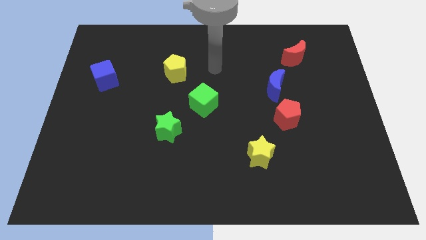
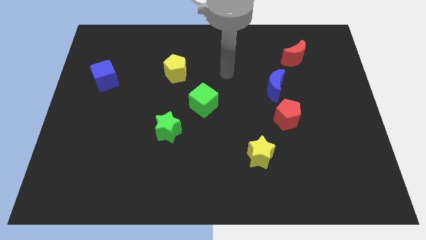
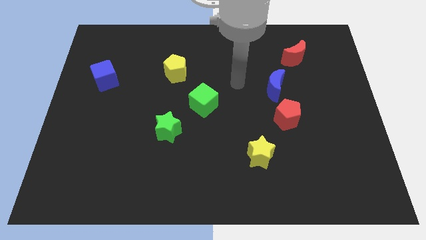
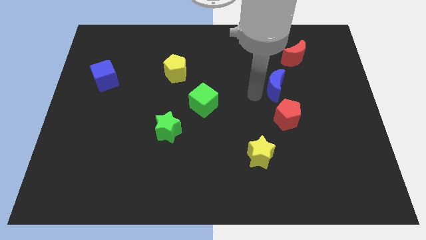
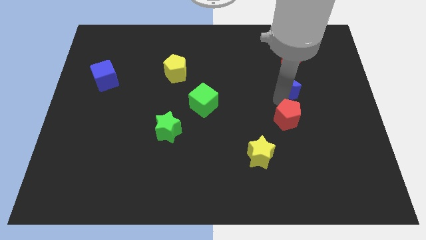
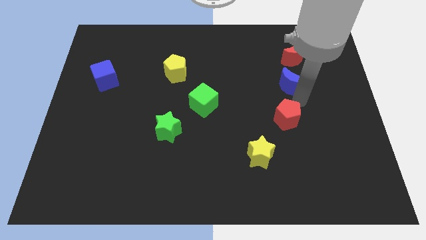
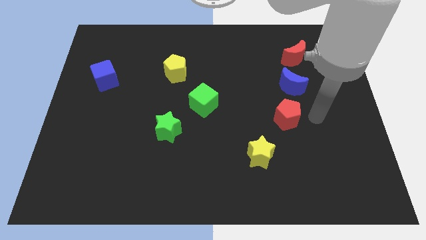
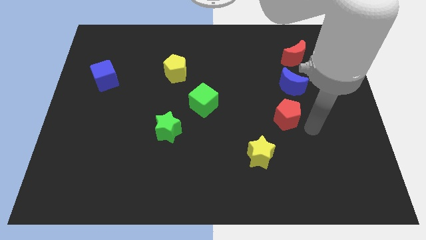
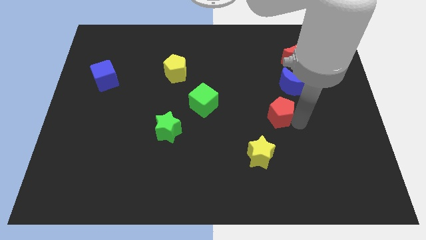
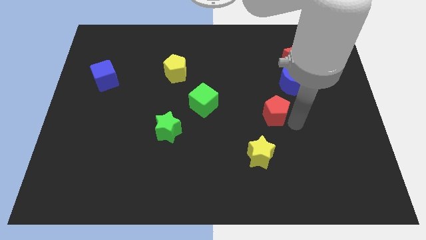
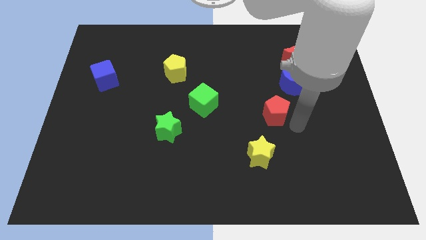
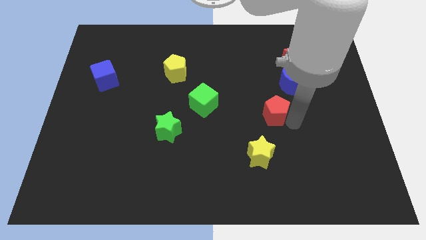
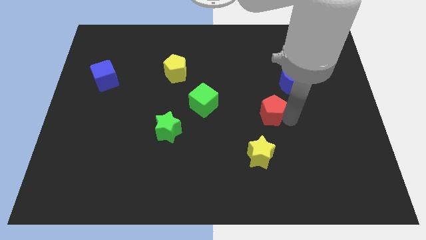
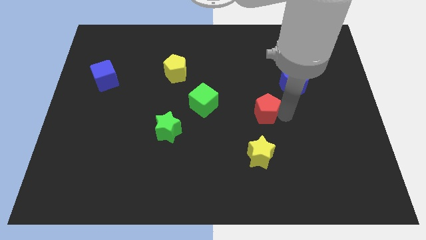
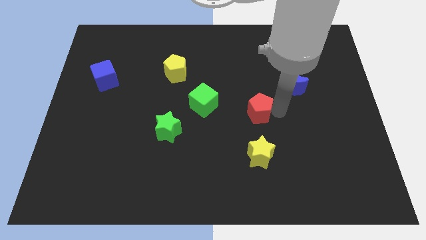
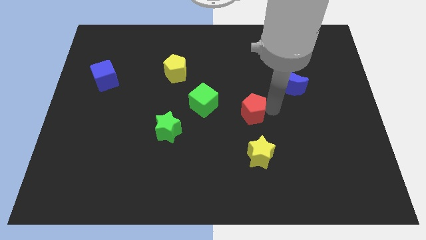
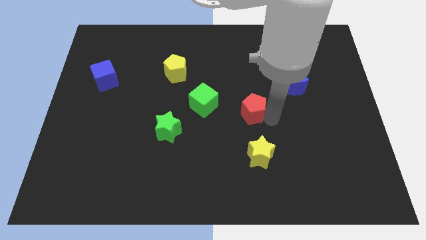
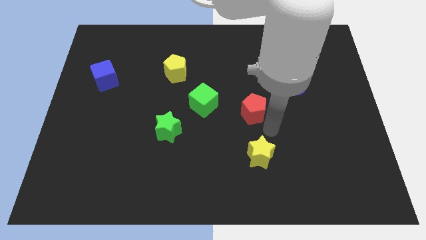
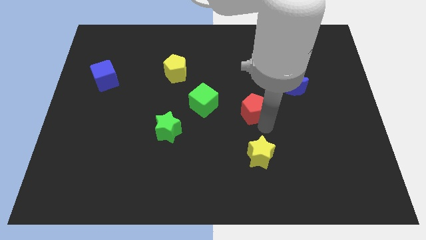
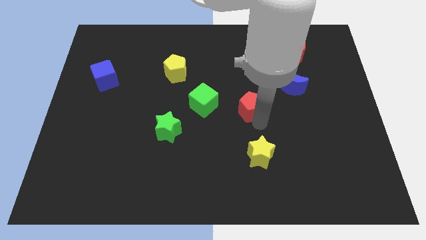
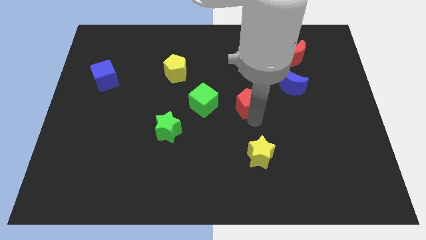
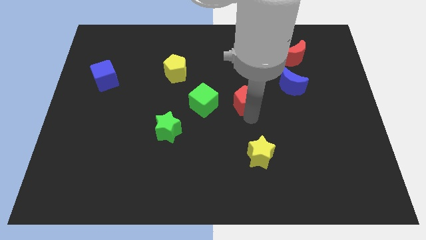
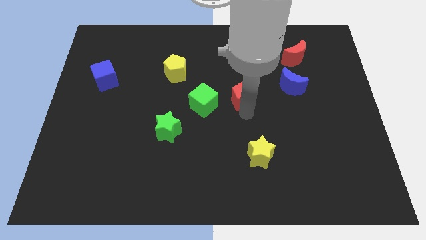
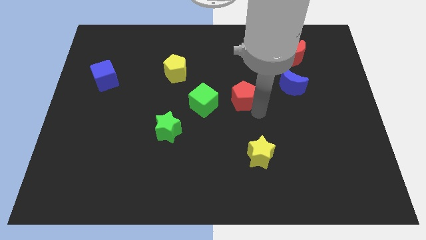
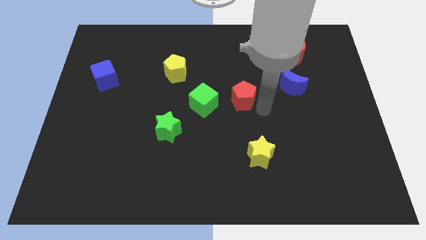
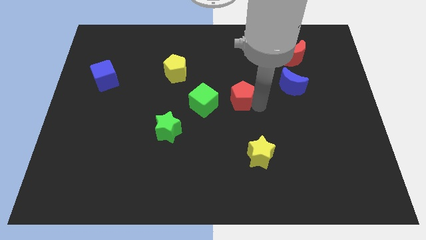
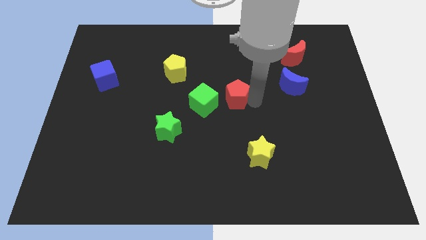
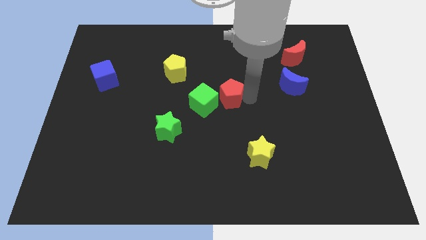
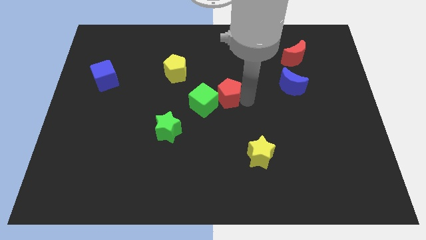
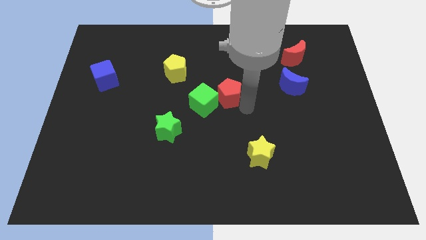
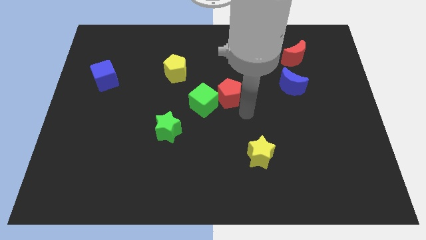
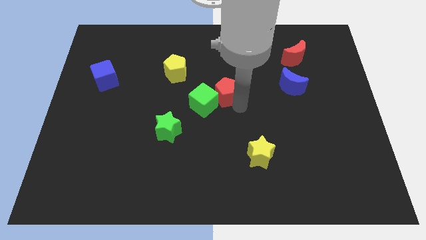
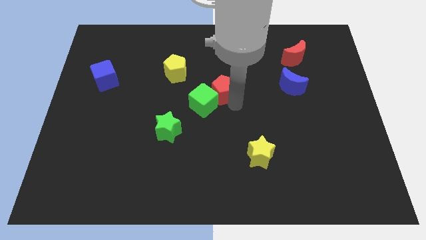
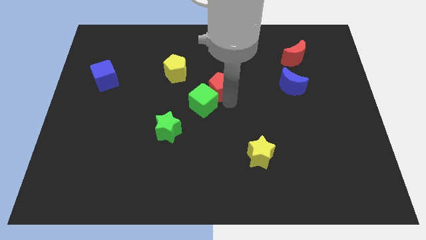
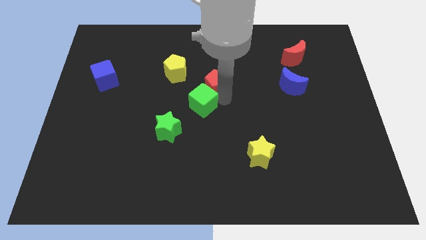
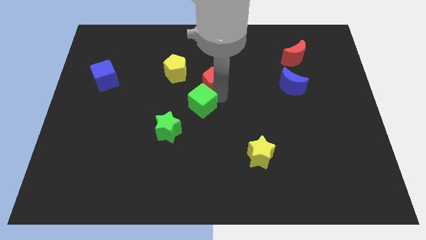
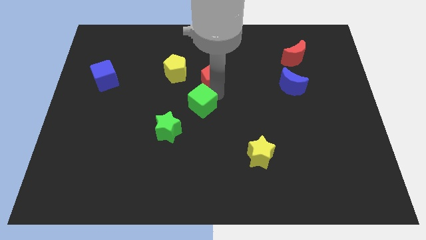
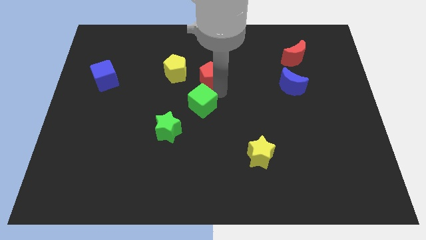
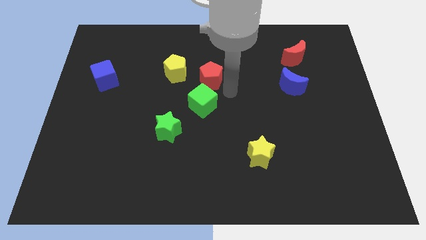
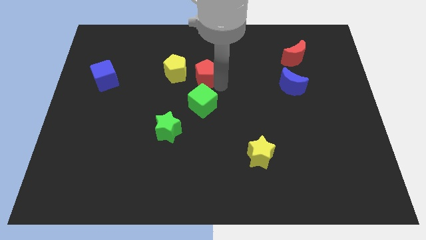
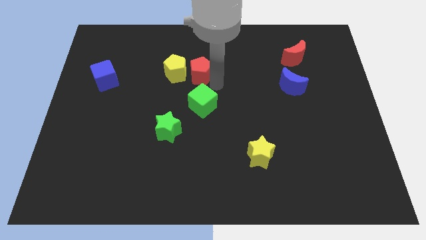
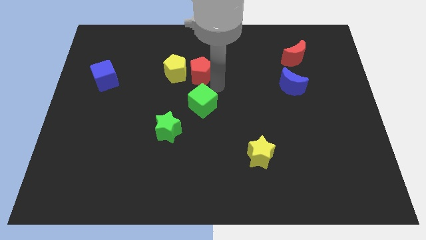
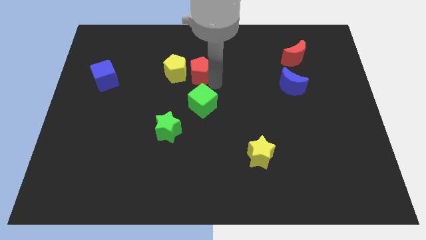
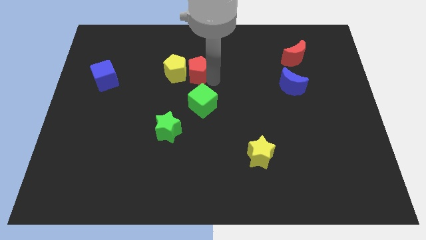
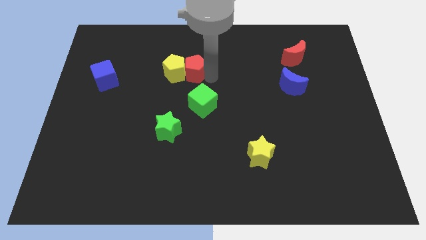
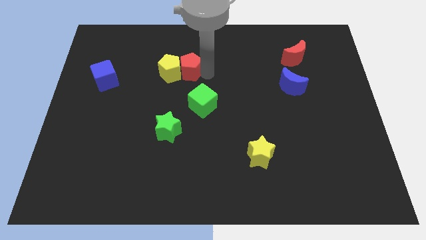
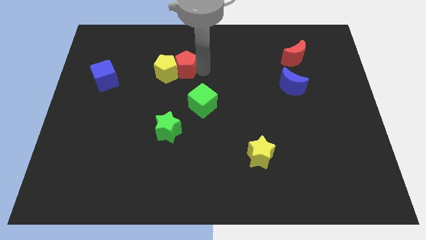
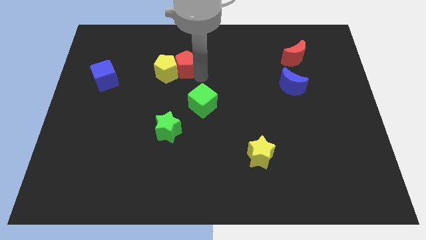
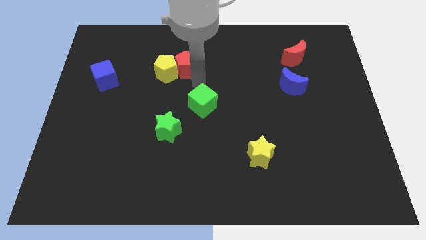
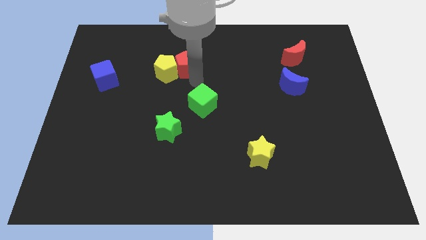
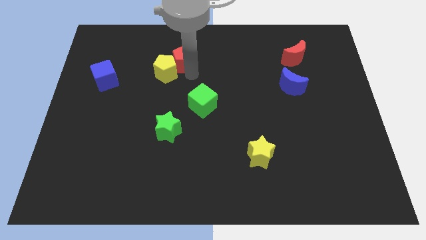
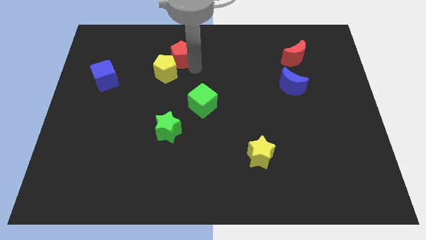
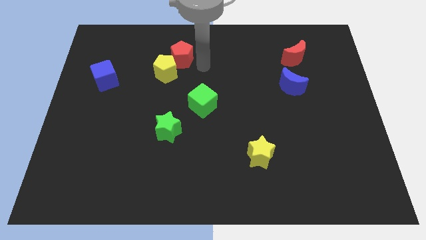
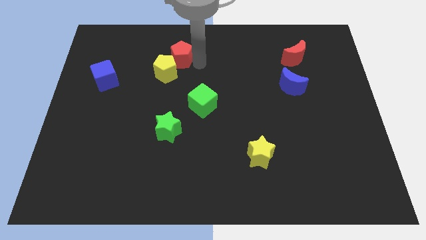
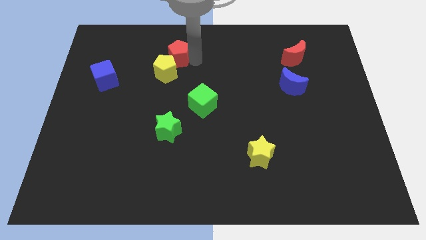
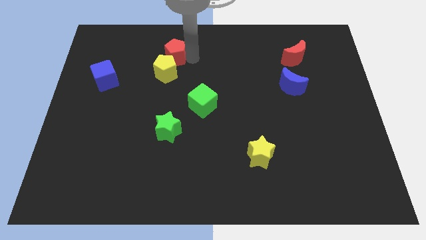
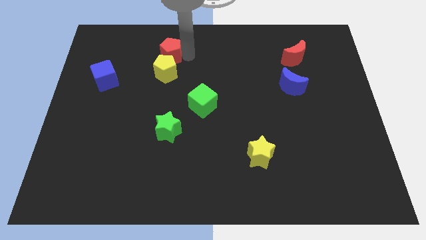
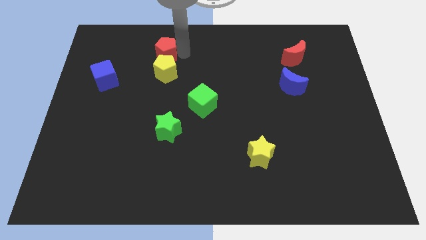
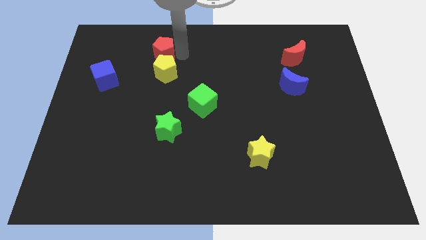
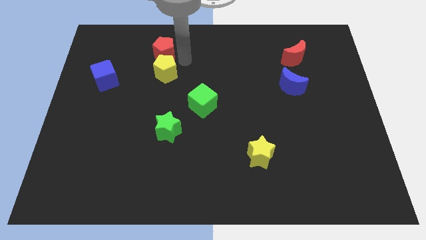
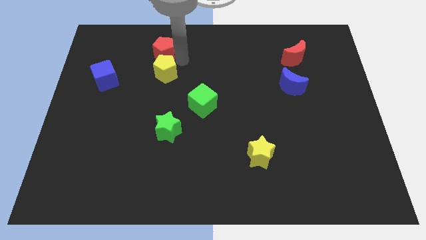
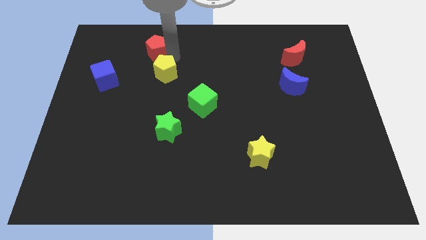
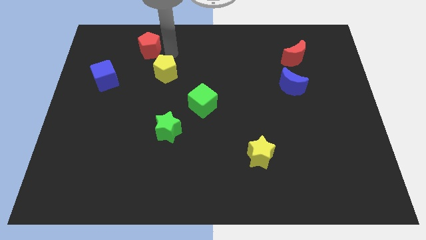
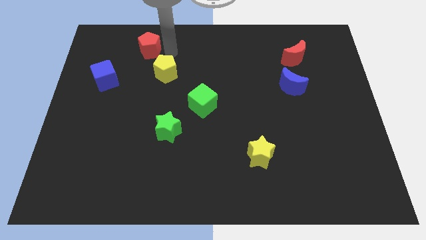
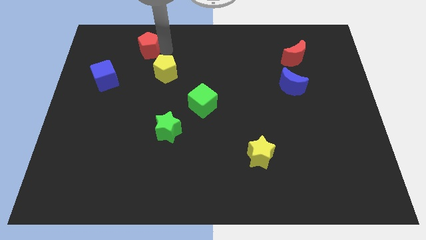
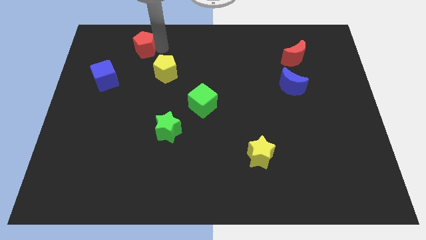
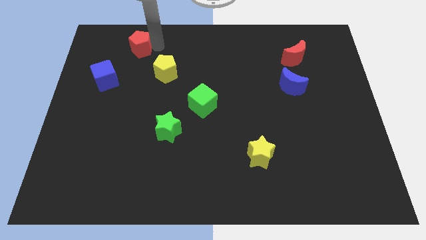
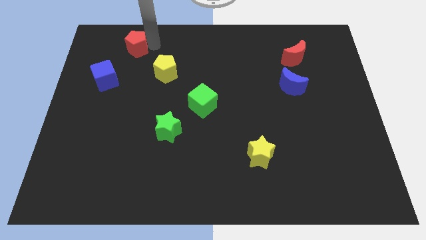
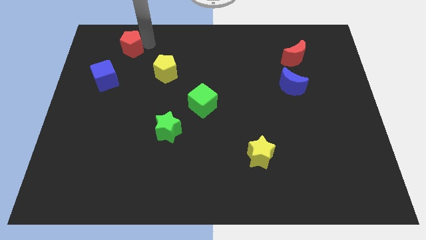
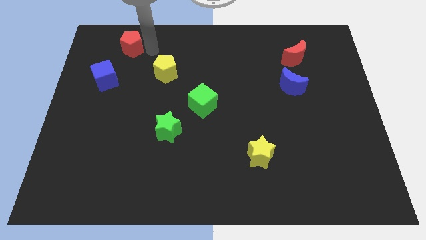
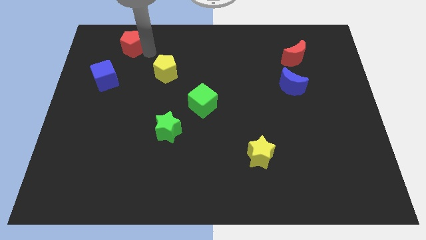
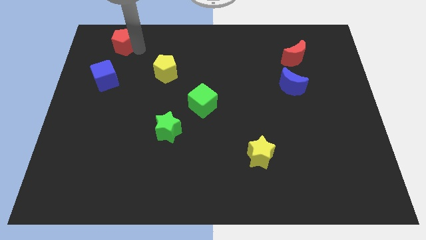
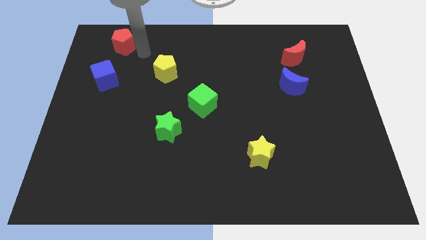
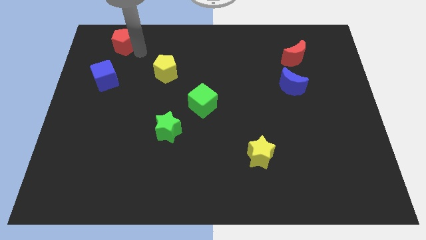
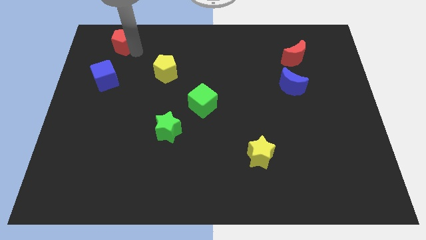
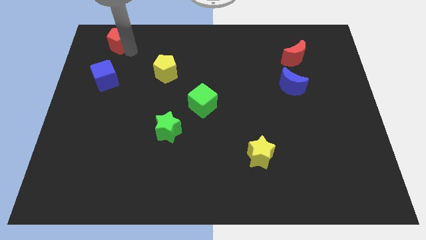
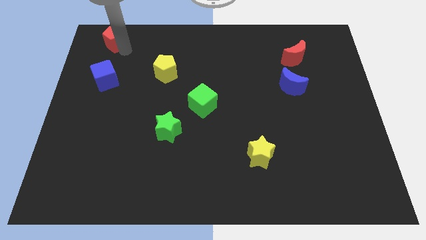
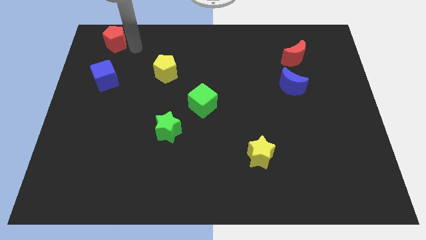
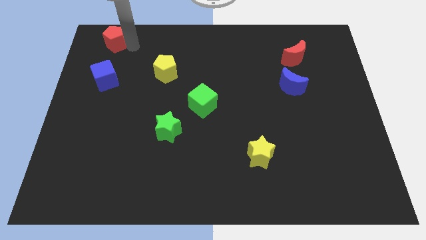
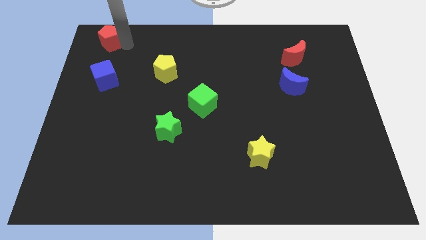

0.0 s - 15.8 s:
put the red pentagon to the top left corner
